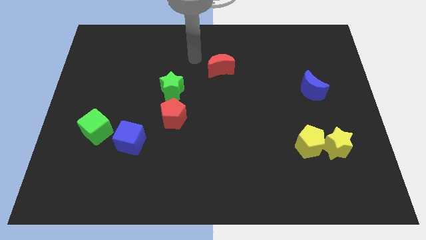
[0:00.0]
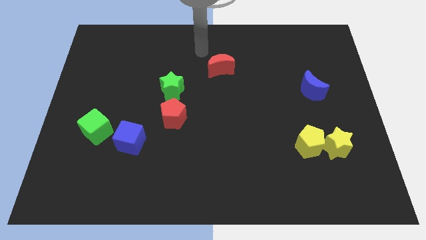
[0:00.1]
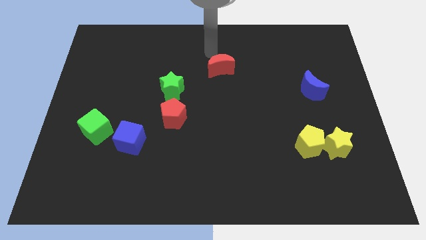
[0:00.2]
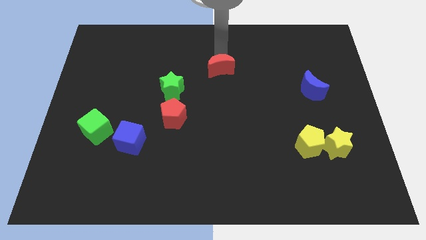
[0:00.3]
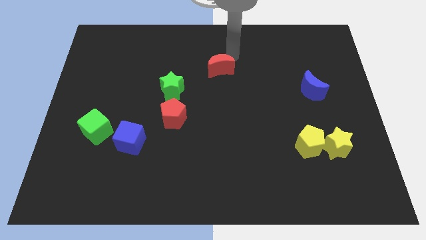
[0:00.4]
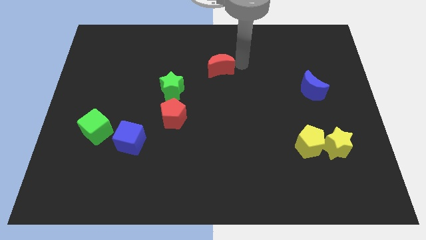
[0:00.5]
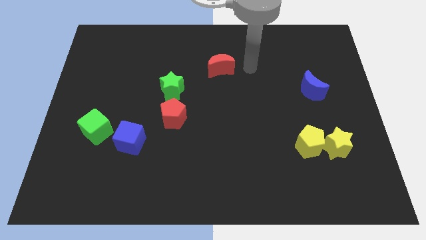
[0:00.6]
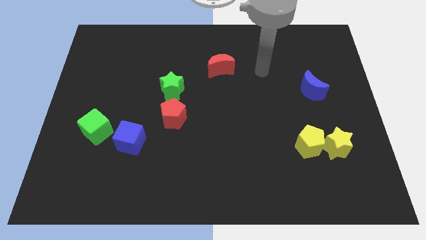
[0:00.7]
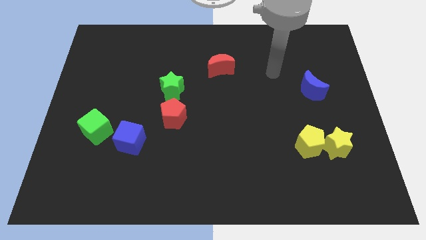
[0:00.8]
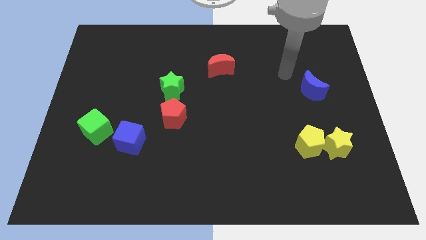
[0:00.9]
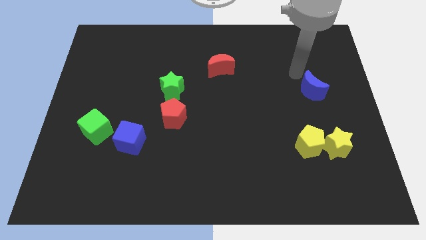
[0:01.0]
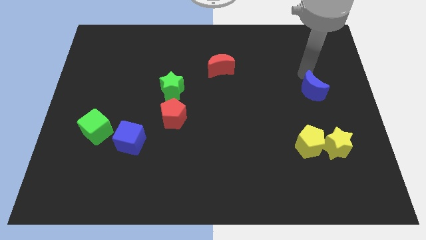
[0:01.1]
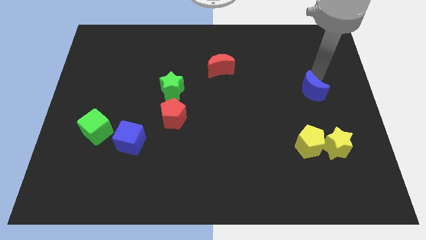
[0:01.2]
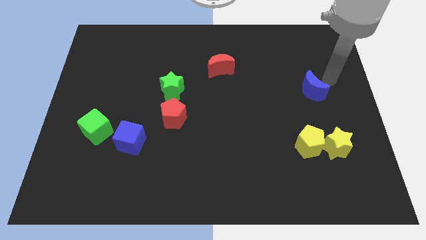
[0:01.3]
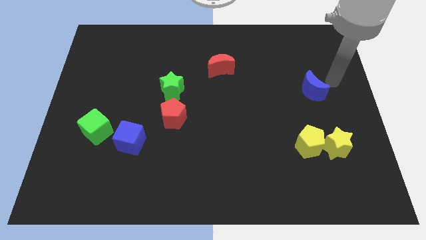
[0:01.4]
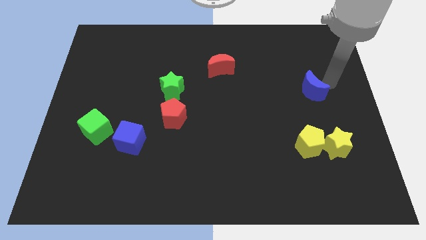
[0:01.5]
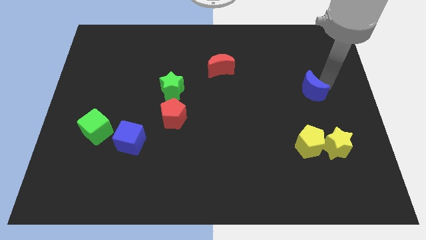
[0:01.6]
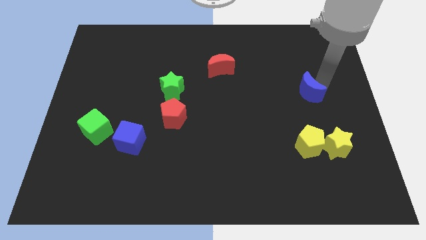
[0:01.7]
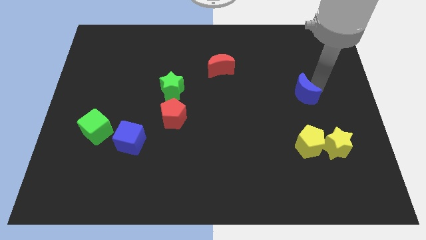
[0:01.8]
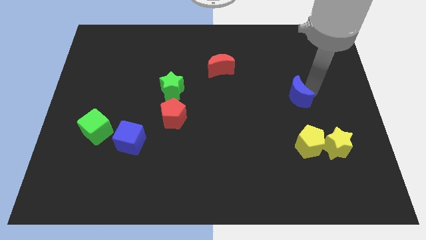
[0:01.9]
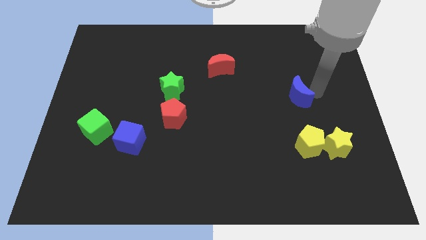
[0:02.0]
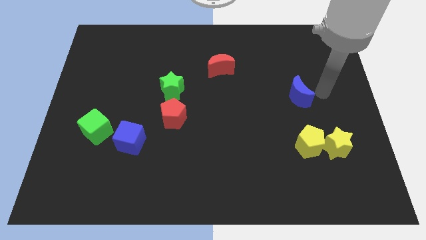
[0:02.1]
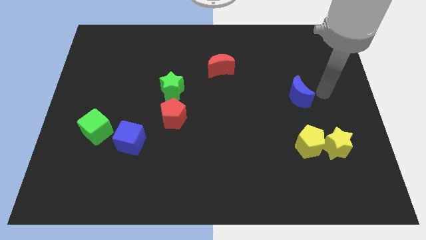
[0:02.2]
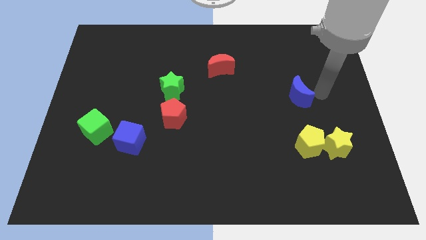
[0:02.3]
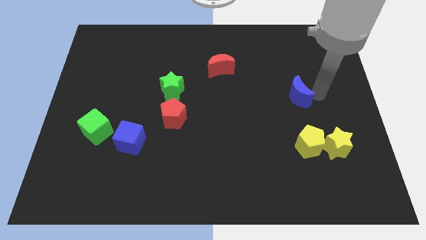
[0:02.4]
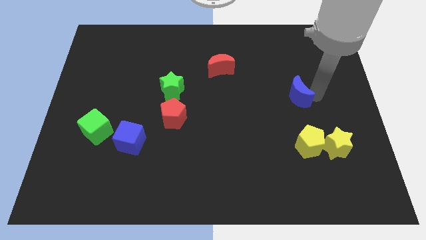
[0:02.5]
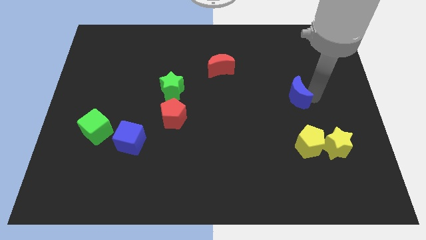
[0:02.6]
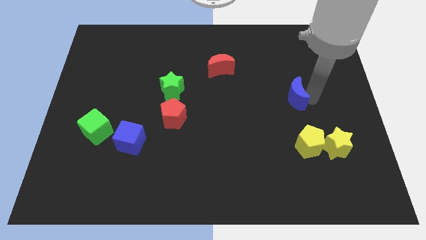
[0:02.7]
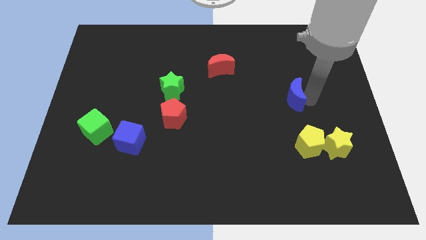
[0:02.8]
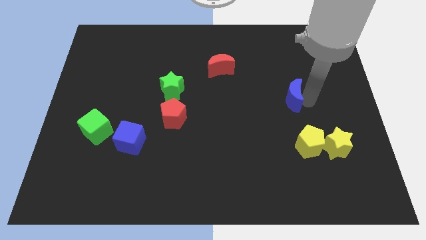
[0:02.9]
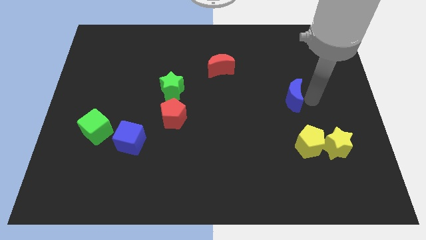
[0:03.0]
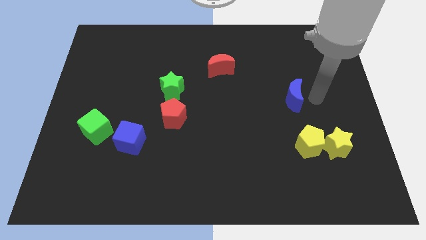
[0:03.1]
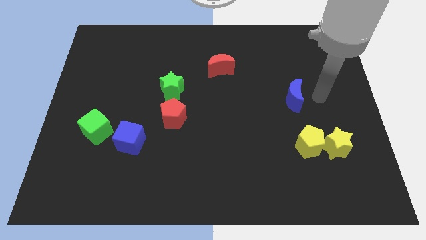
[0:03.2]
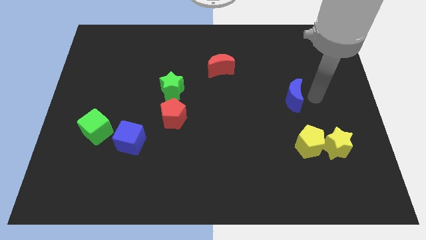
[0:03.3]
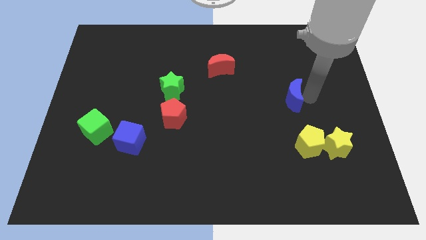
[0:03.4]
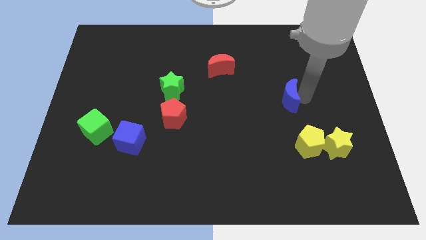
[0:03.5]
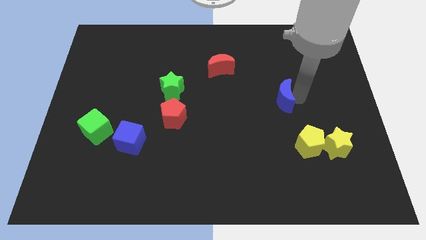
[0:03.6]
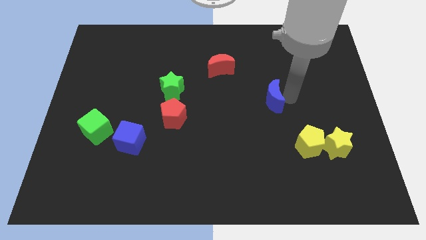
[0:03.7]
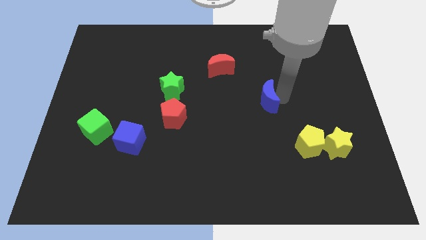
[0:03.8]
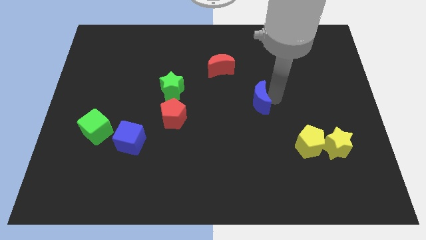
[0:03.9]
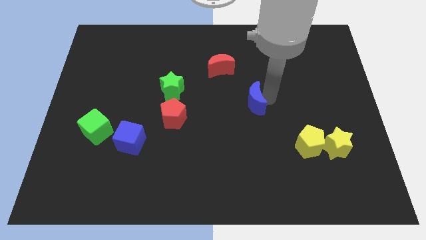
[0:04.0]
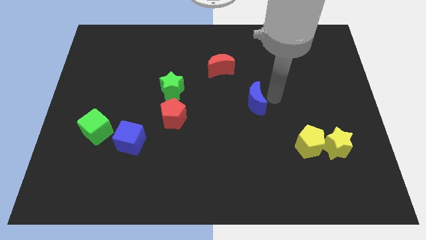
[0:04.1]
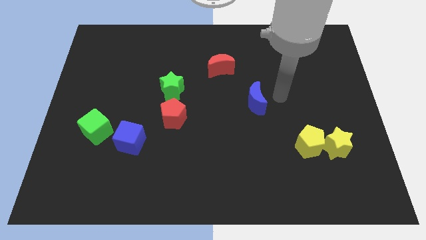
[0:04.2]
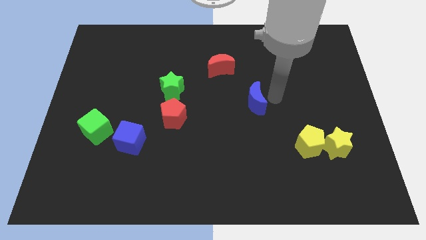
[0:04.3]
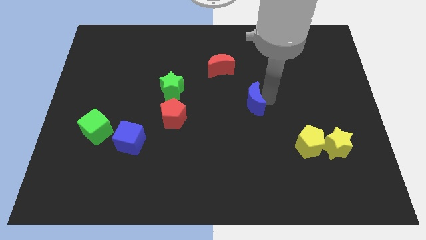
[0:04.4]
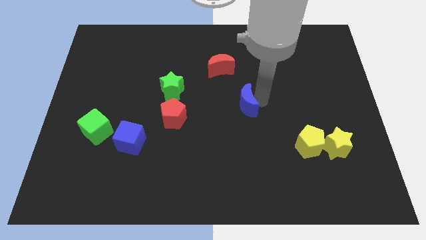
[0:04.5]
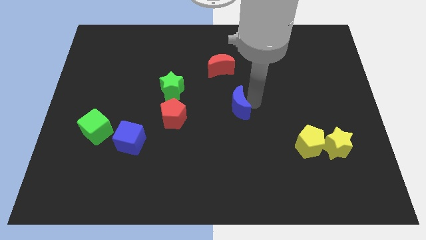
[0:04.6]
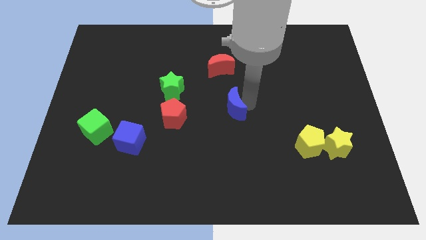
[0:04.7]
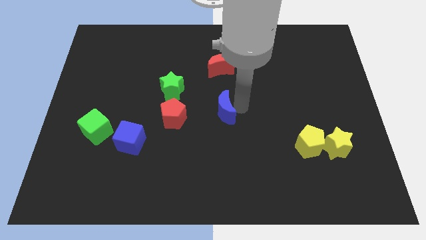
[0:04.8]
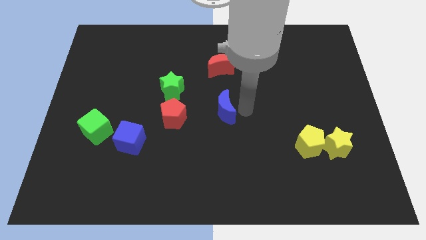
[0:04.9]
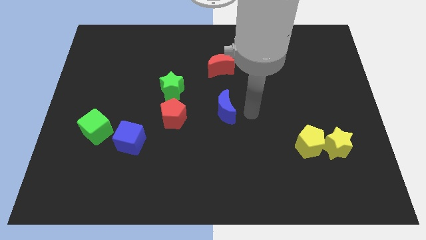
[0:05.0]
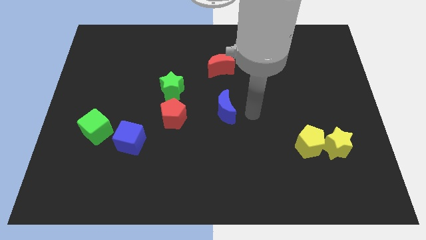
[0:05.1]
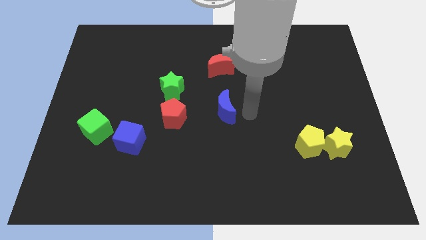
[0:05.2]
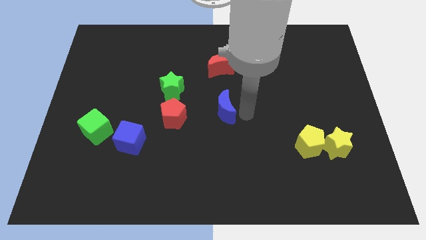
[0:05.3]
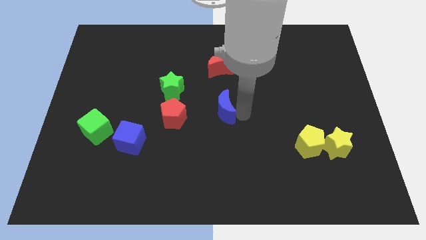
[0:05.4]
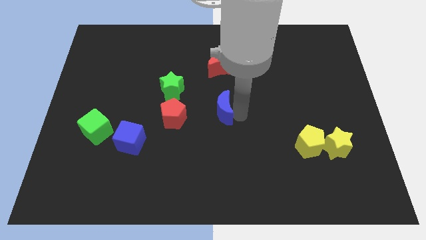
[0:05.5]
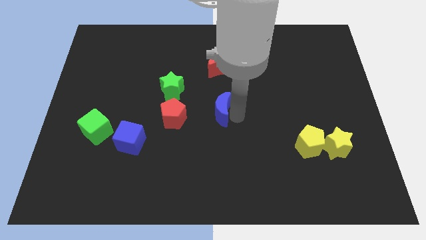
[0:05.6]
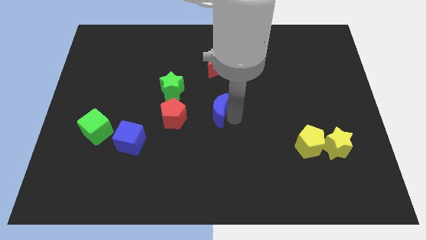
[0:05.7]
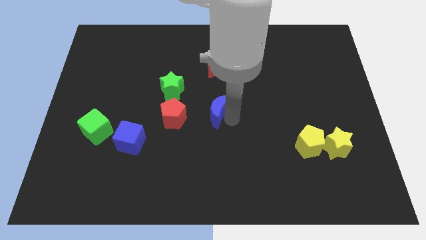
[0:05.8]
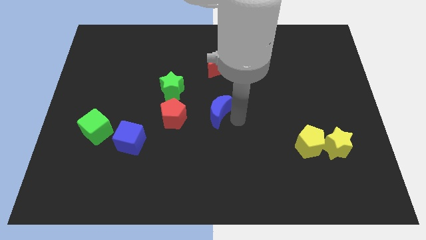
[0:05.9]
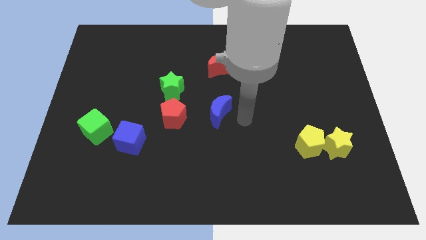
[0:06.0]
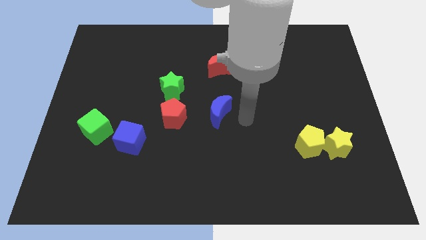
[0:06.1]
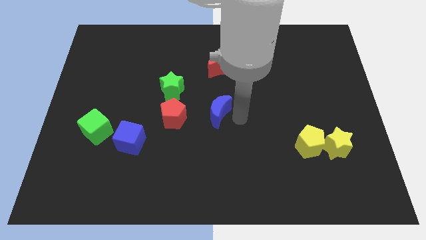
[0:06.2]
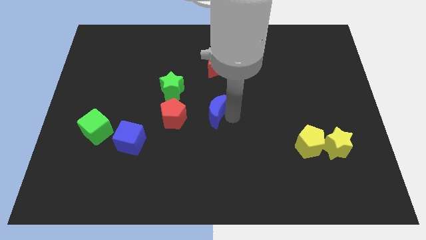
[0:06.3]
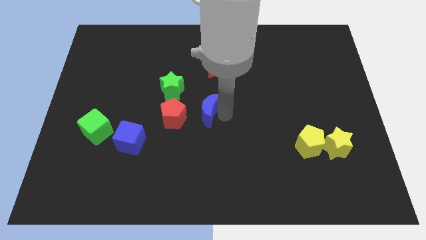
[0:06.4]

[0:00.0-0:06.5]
put the blue moon diagonally down and to the right of the green star

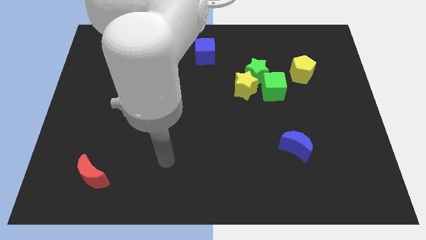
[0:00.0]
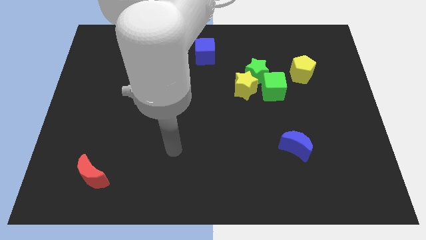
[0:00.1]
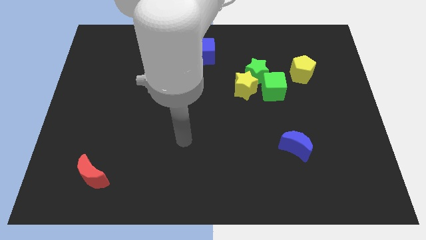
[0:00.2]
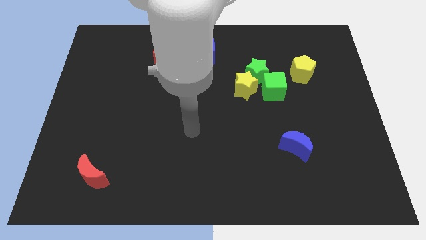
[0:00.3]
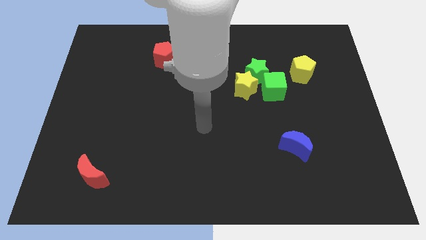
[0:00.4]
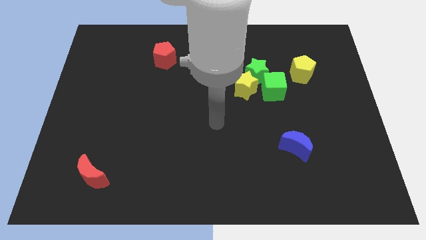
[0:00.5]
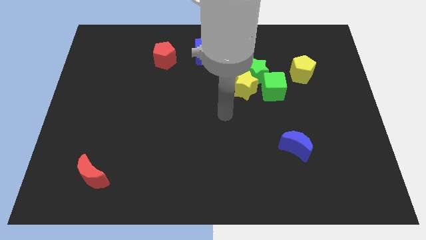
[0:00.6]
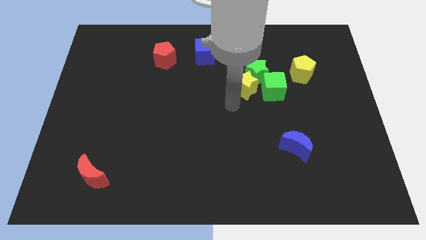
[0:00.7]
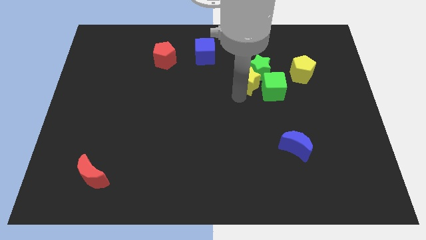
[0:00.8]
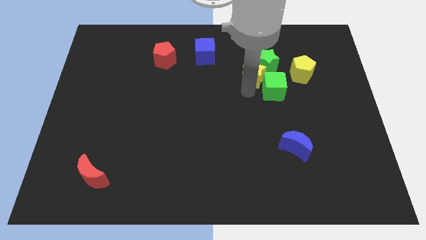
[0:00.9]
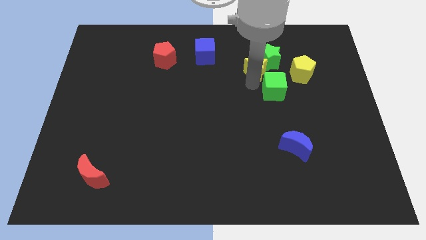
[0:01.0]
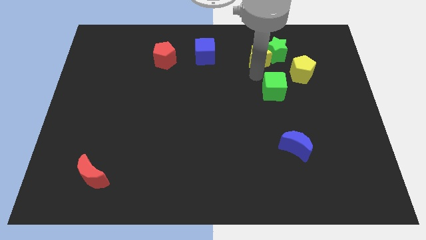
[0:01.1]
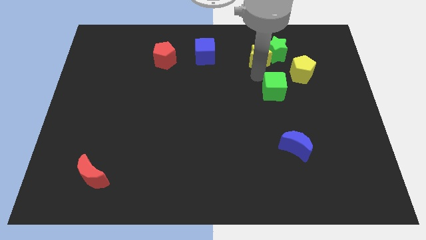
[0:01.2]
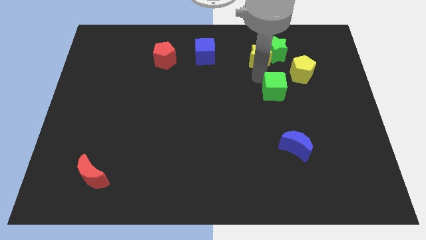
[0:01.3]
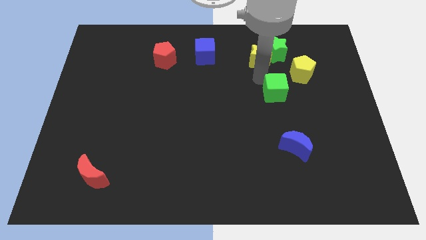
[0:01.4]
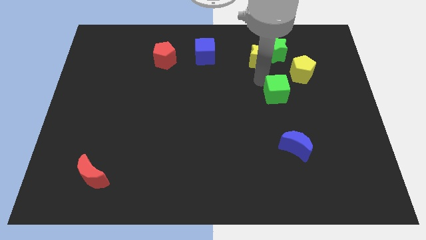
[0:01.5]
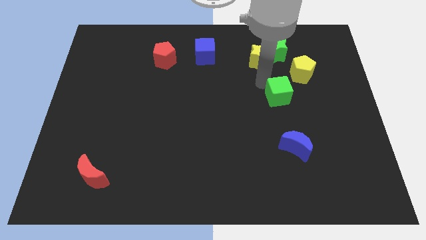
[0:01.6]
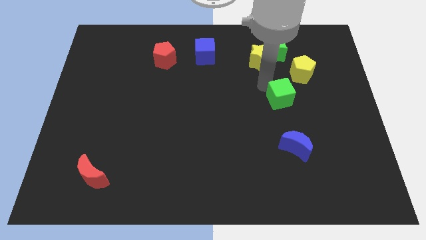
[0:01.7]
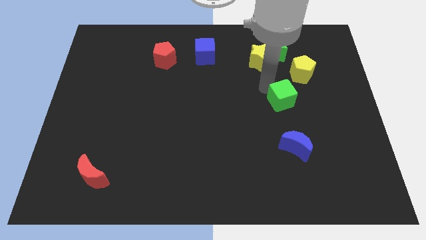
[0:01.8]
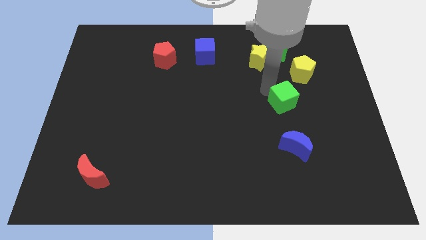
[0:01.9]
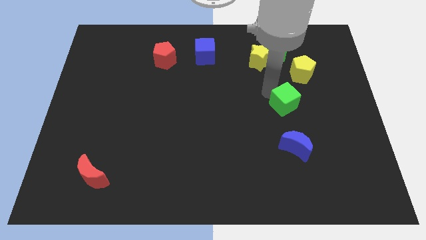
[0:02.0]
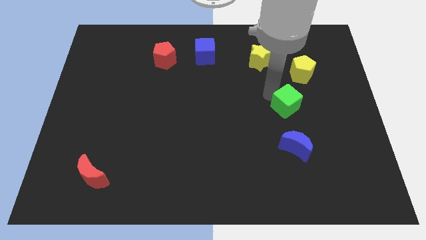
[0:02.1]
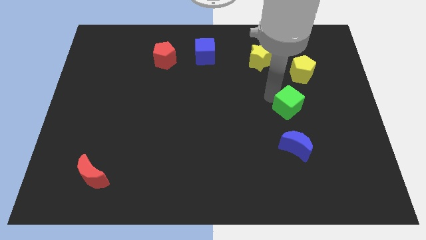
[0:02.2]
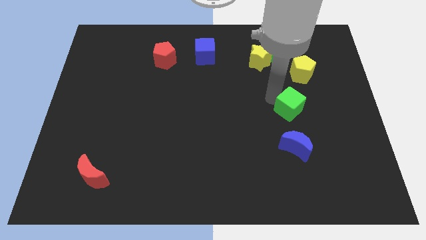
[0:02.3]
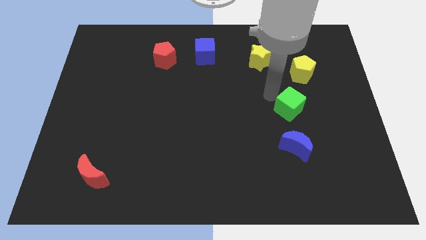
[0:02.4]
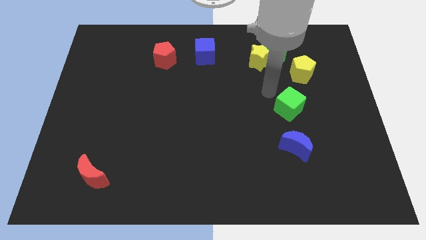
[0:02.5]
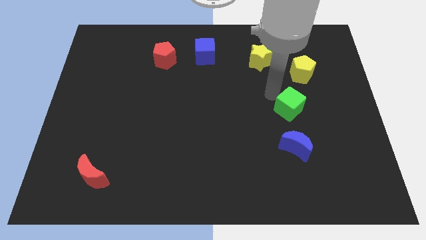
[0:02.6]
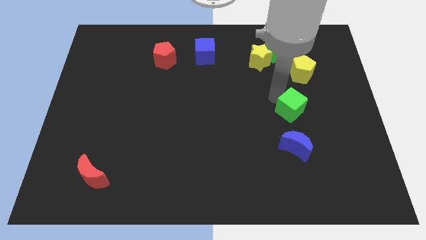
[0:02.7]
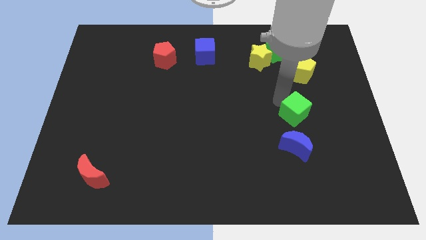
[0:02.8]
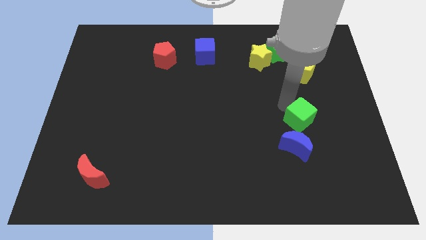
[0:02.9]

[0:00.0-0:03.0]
put the green cube to the top right of the blue moon
